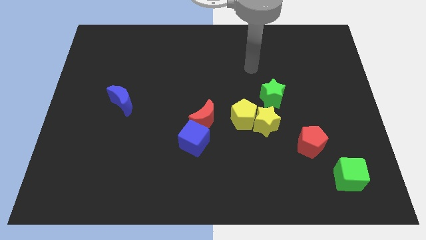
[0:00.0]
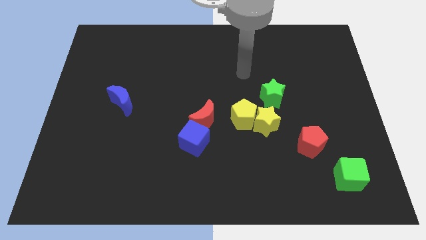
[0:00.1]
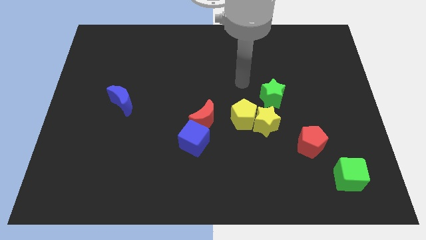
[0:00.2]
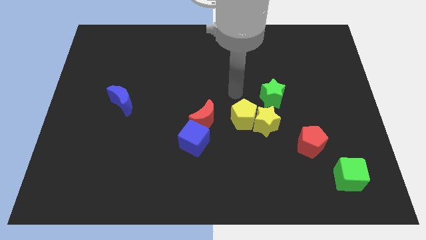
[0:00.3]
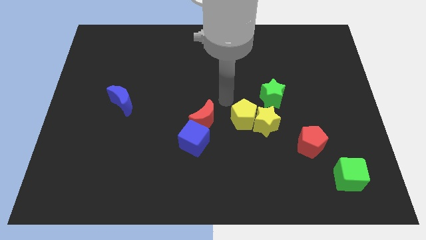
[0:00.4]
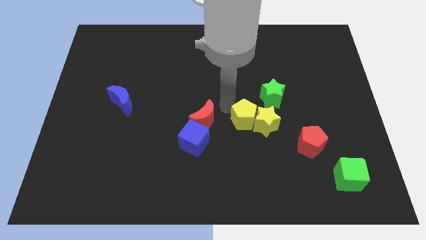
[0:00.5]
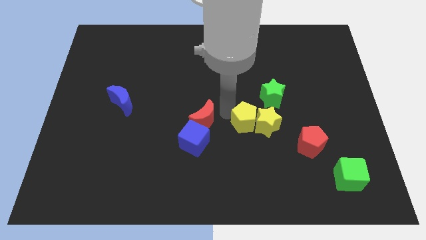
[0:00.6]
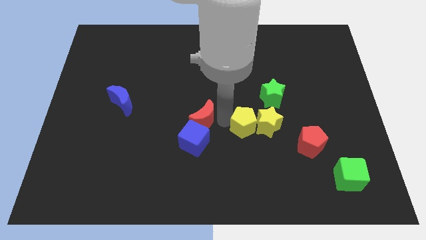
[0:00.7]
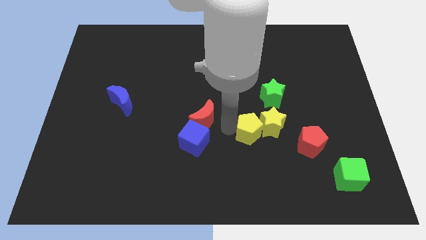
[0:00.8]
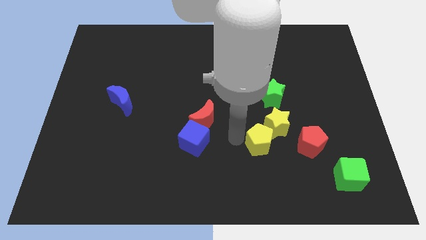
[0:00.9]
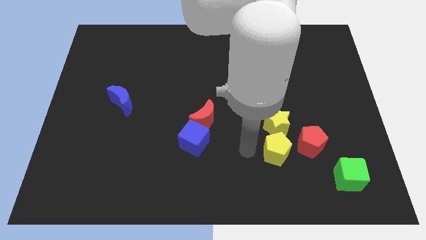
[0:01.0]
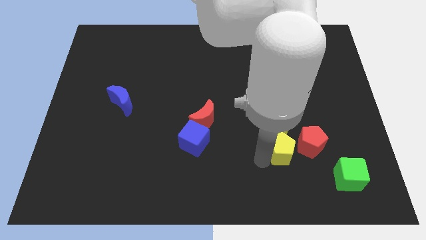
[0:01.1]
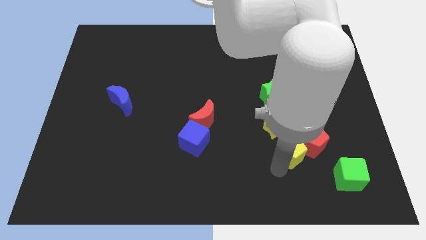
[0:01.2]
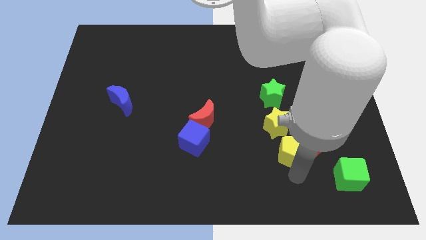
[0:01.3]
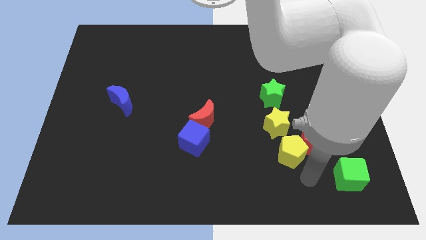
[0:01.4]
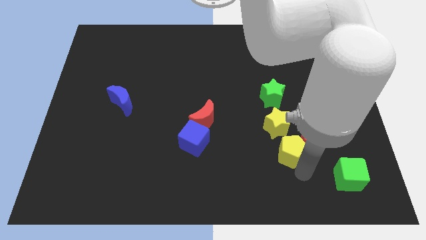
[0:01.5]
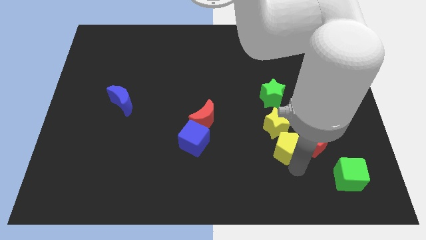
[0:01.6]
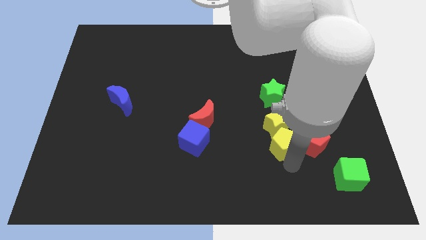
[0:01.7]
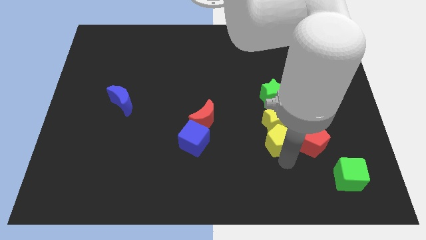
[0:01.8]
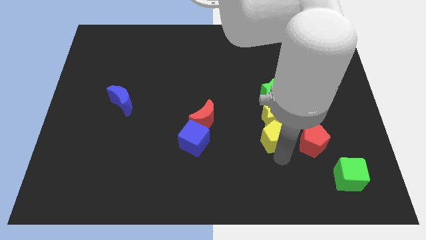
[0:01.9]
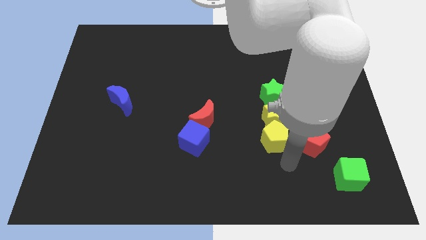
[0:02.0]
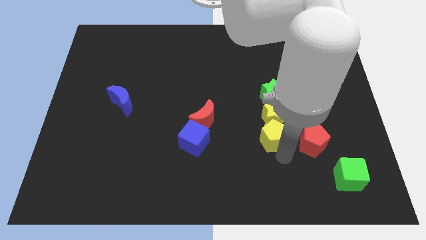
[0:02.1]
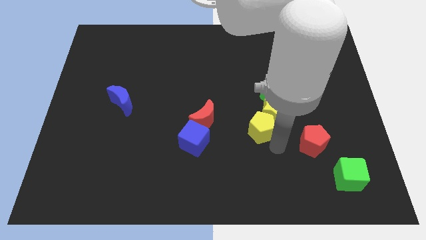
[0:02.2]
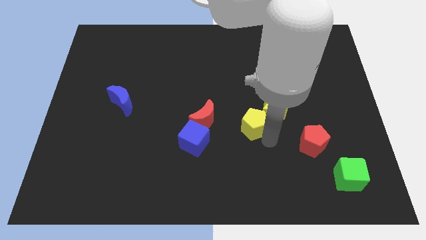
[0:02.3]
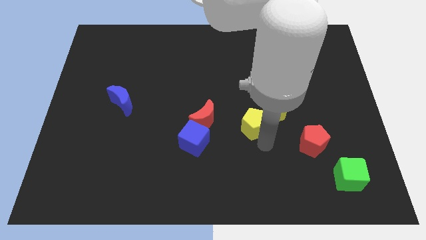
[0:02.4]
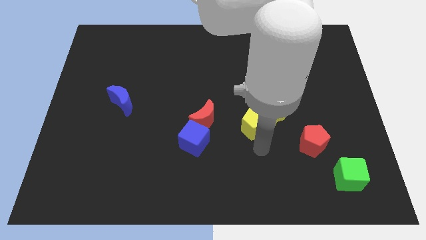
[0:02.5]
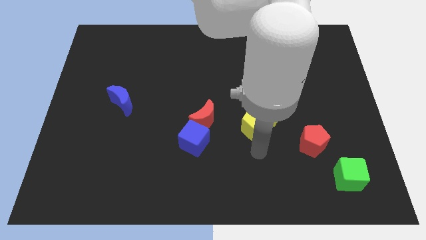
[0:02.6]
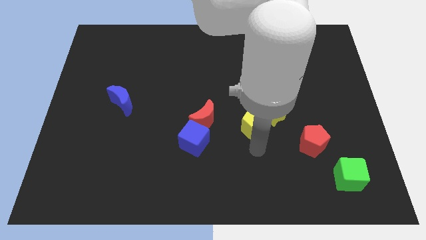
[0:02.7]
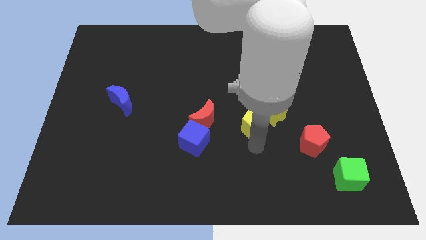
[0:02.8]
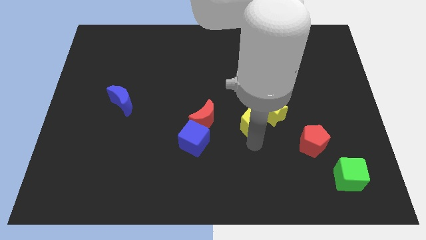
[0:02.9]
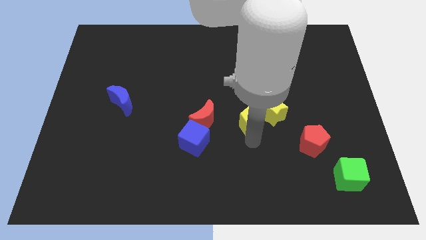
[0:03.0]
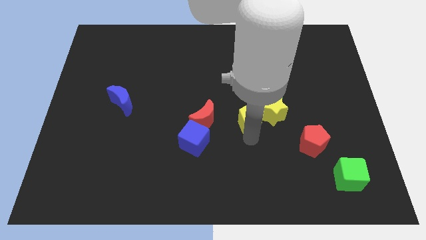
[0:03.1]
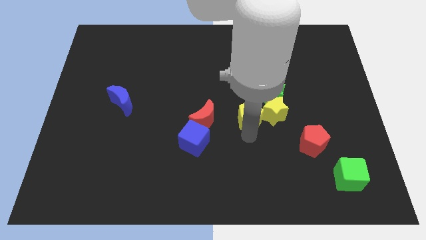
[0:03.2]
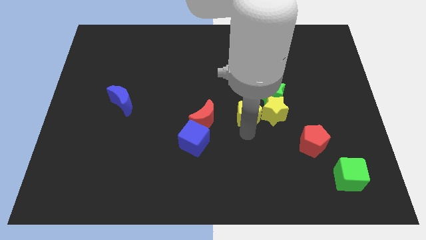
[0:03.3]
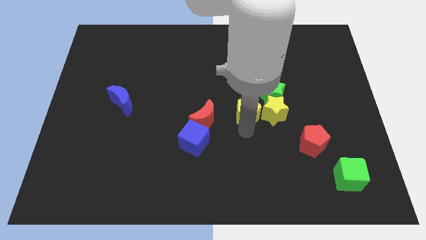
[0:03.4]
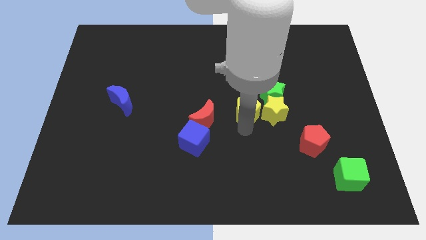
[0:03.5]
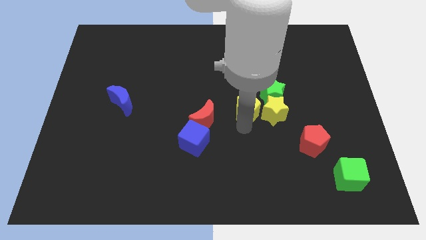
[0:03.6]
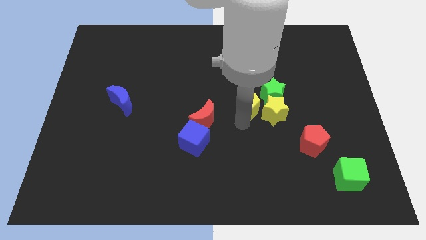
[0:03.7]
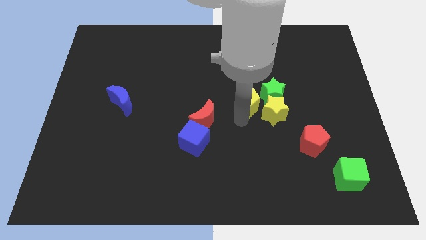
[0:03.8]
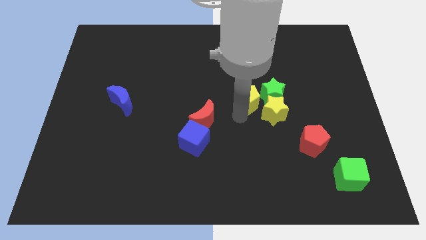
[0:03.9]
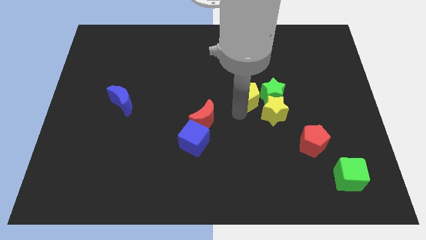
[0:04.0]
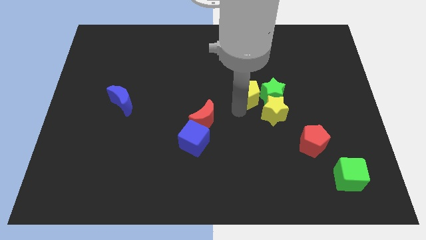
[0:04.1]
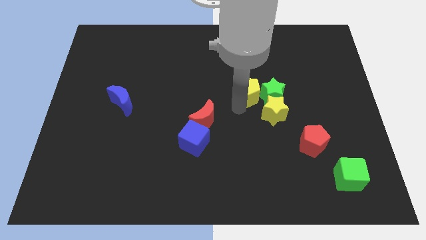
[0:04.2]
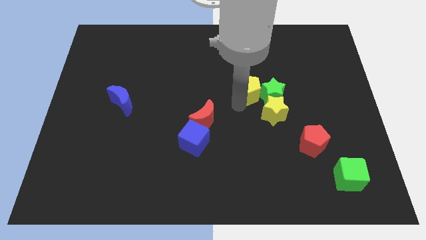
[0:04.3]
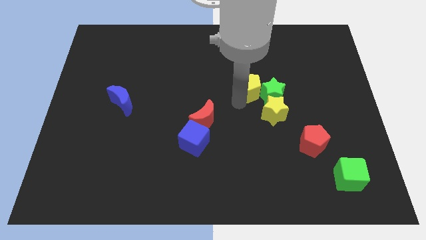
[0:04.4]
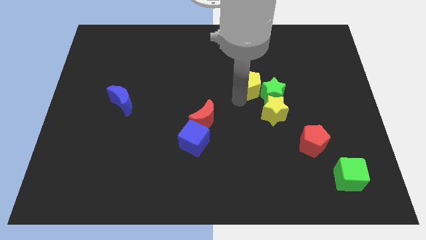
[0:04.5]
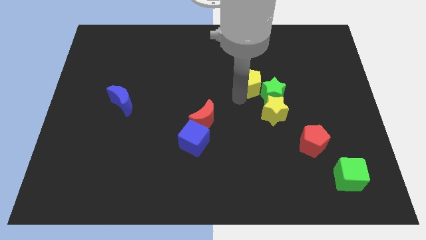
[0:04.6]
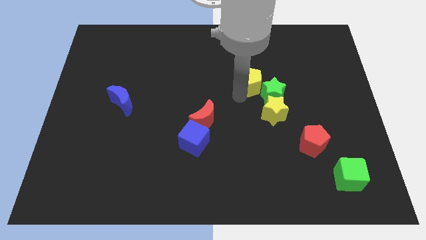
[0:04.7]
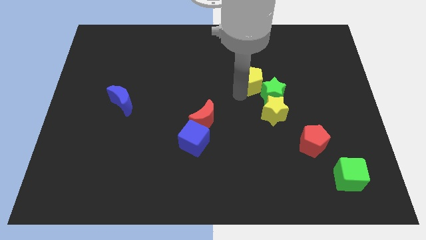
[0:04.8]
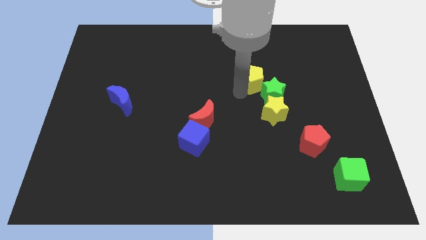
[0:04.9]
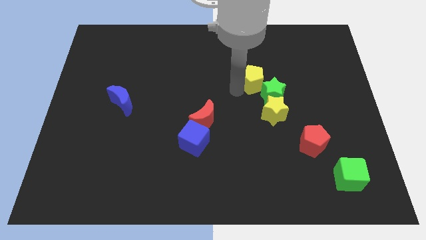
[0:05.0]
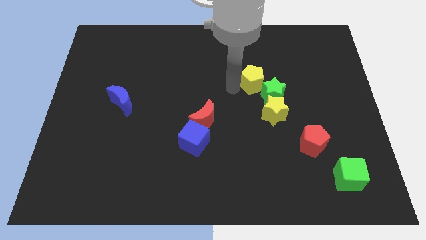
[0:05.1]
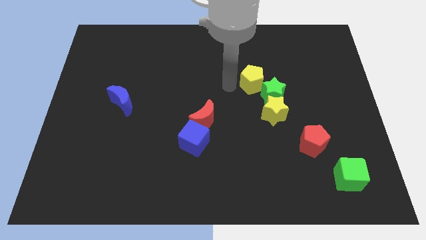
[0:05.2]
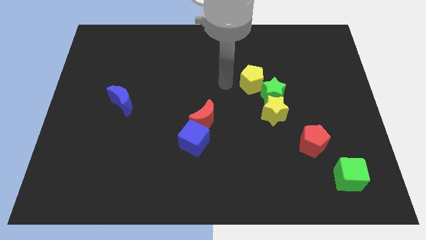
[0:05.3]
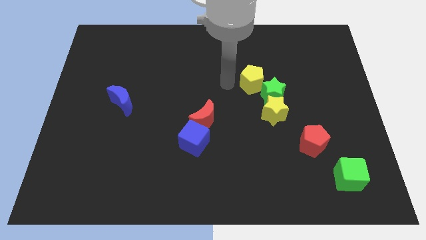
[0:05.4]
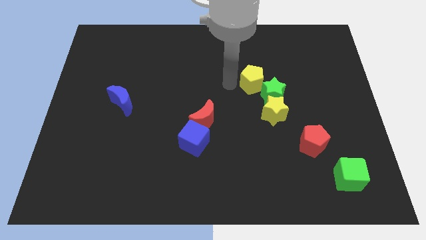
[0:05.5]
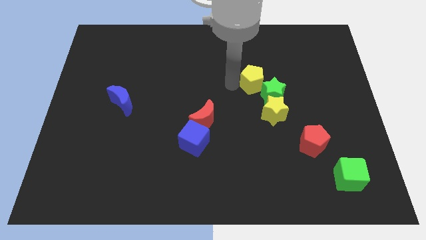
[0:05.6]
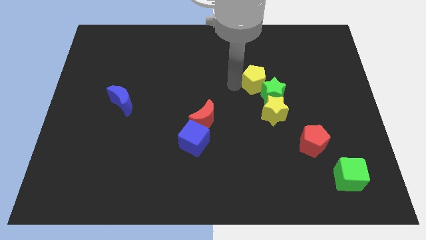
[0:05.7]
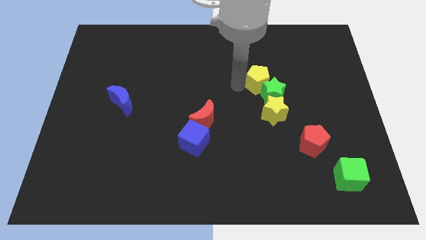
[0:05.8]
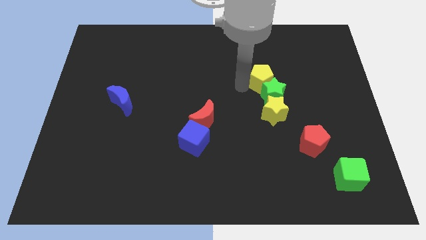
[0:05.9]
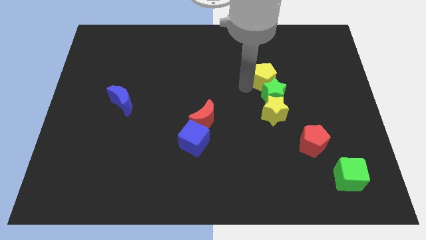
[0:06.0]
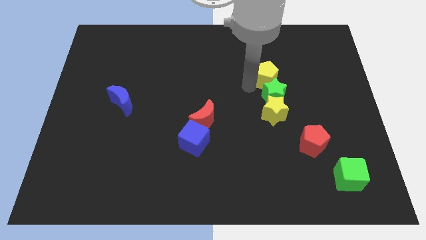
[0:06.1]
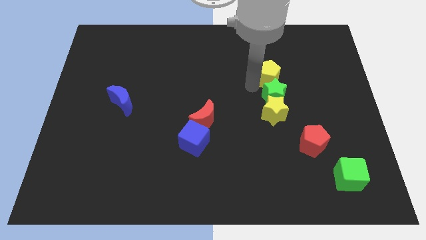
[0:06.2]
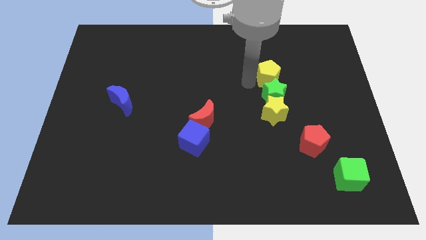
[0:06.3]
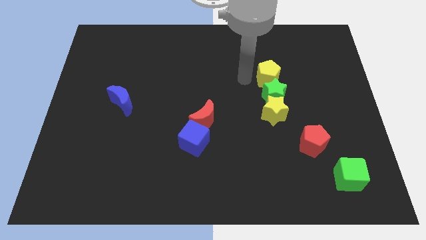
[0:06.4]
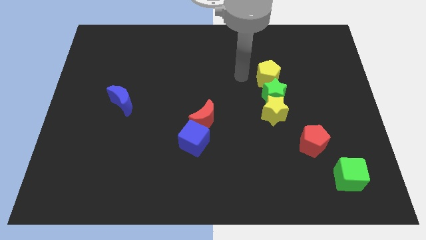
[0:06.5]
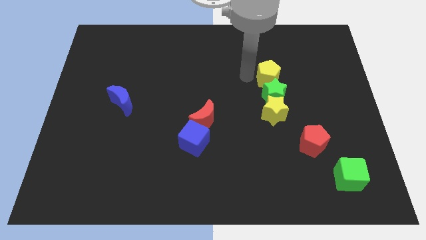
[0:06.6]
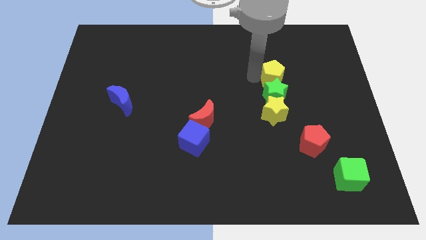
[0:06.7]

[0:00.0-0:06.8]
slide the yellow pentagon diagonally up and to the right of the green star
